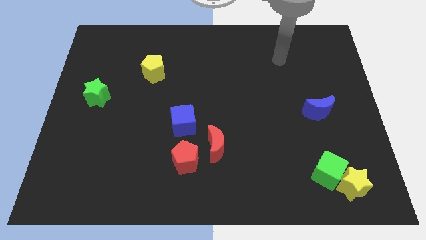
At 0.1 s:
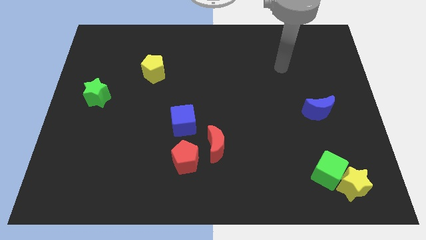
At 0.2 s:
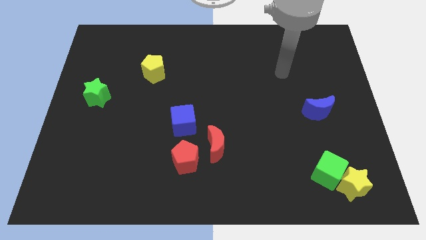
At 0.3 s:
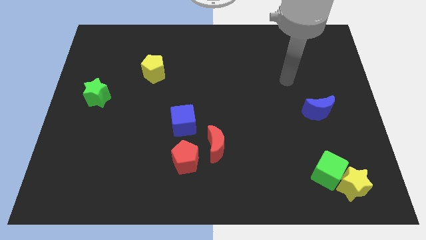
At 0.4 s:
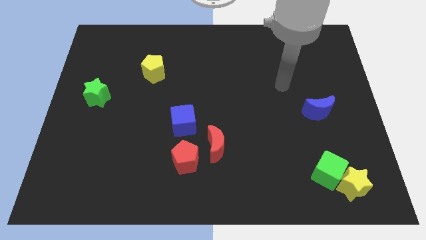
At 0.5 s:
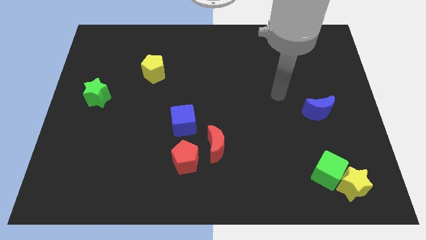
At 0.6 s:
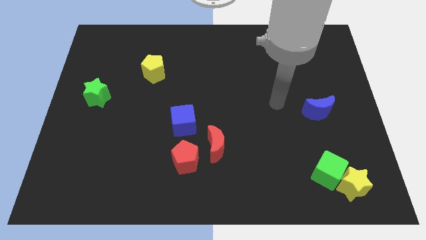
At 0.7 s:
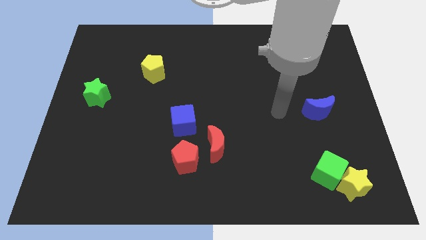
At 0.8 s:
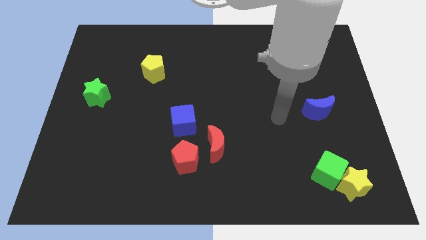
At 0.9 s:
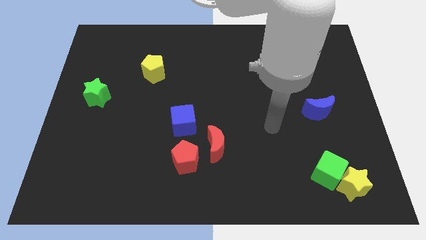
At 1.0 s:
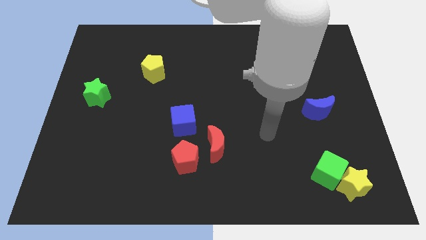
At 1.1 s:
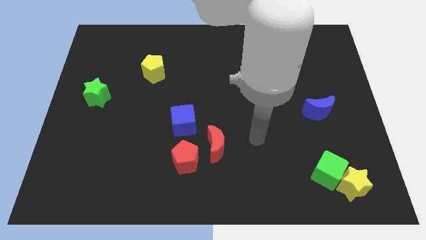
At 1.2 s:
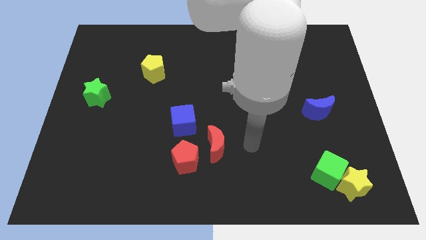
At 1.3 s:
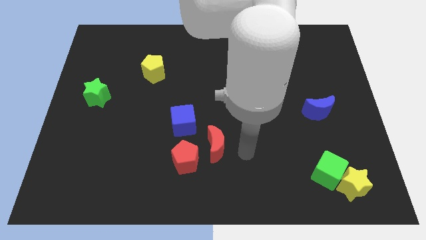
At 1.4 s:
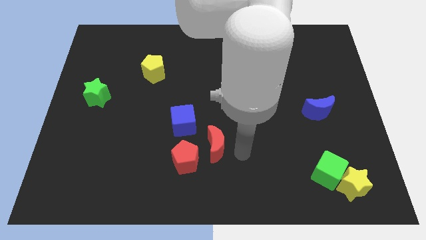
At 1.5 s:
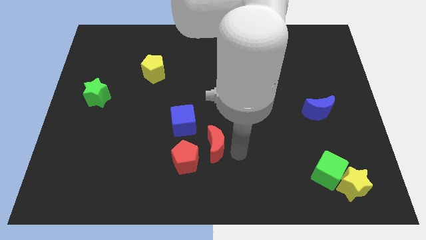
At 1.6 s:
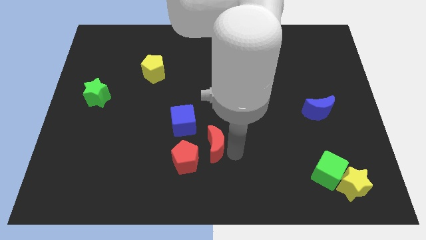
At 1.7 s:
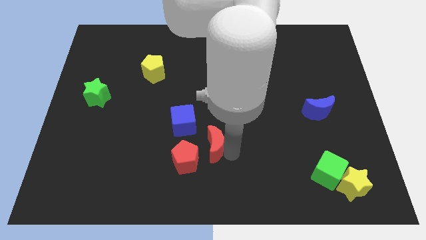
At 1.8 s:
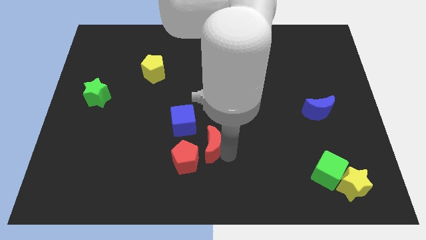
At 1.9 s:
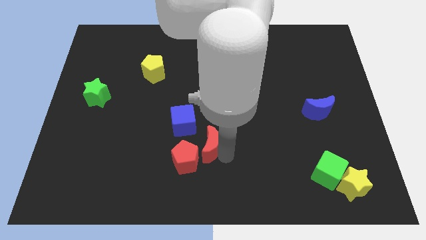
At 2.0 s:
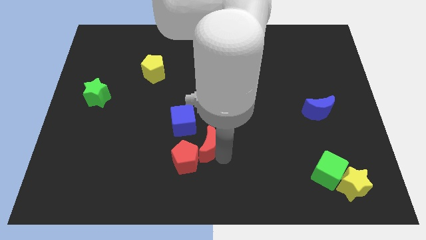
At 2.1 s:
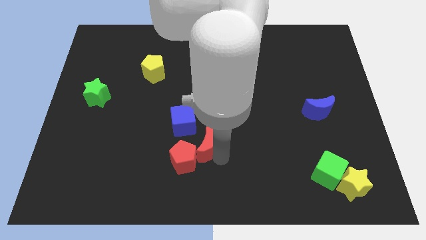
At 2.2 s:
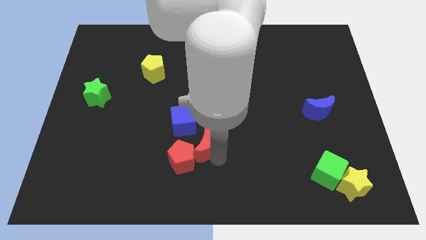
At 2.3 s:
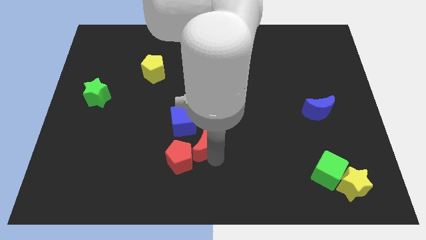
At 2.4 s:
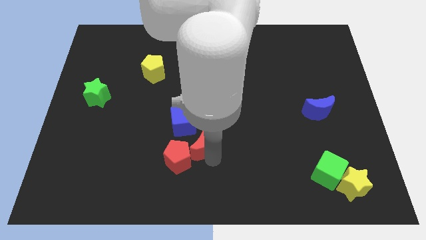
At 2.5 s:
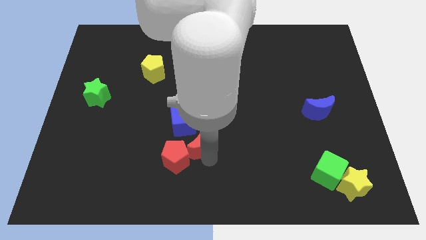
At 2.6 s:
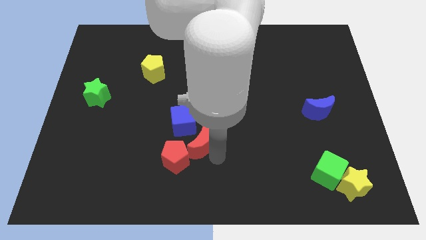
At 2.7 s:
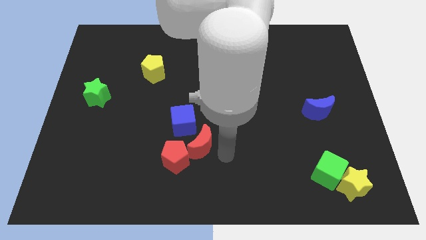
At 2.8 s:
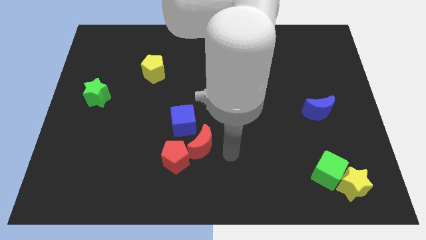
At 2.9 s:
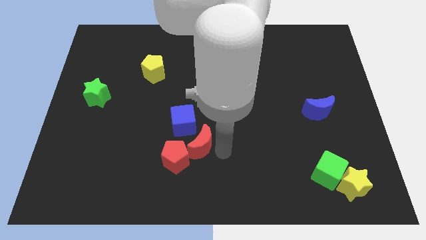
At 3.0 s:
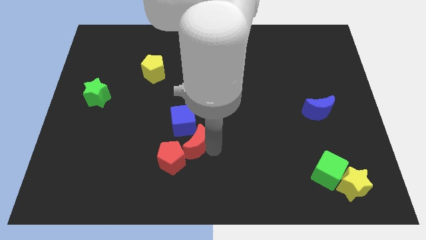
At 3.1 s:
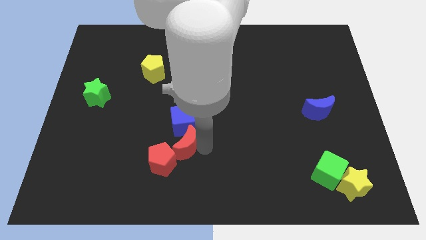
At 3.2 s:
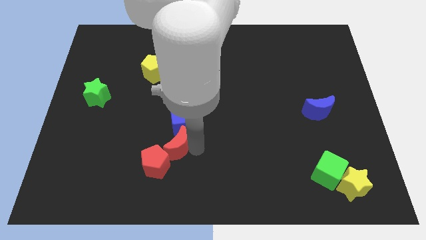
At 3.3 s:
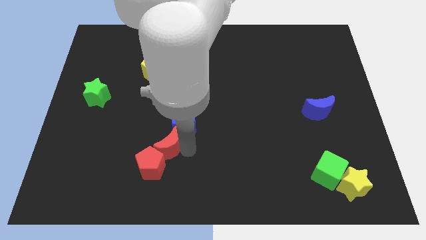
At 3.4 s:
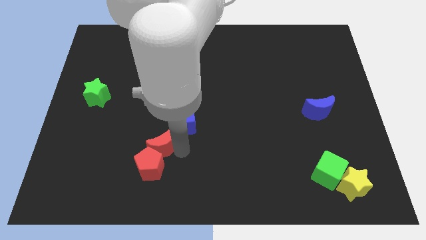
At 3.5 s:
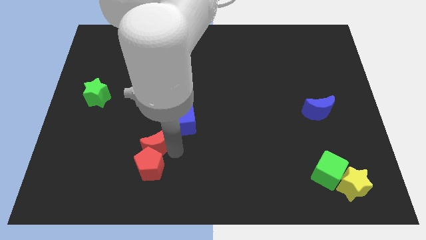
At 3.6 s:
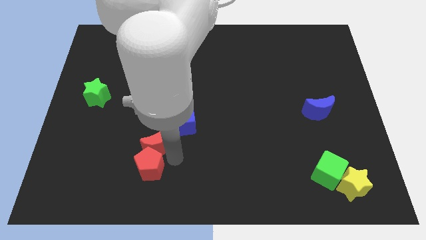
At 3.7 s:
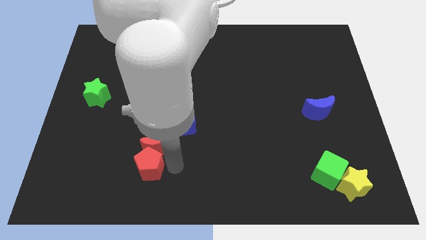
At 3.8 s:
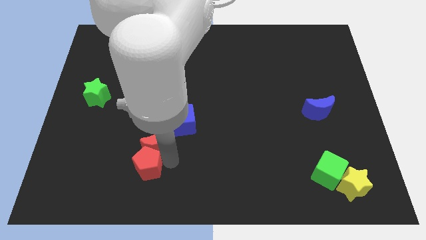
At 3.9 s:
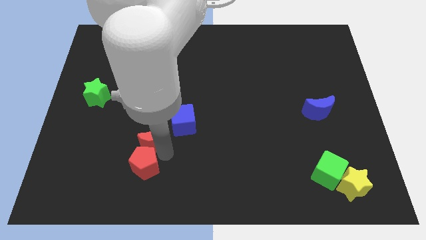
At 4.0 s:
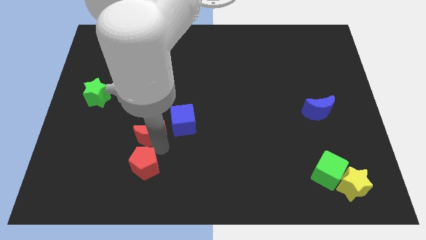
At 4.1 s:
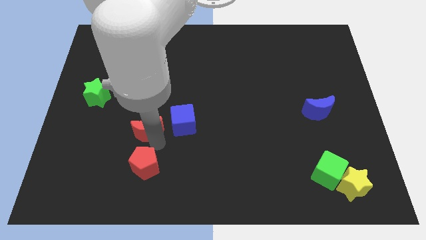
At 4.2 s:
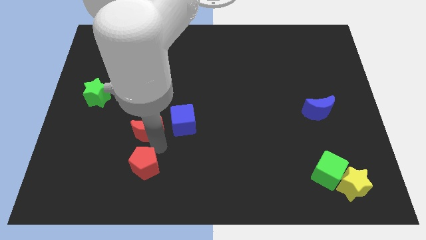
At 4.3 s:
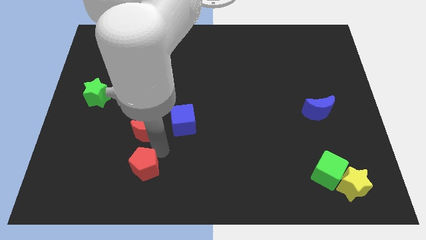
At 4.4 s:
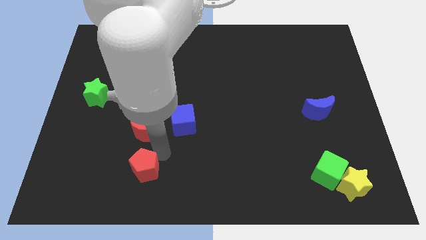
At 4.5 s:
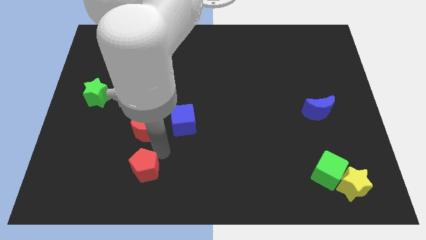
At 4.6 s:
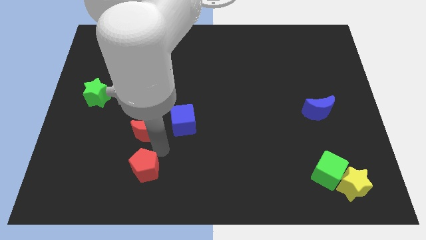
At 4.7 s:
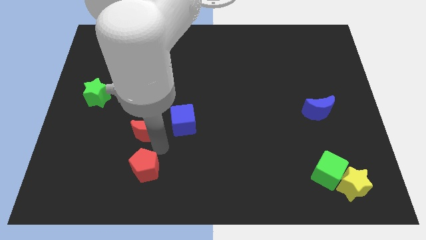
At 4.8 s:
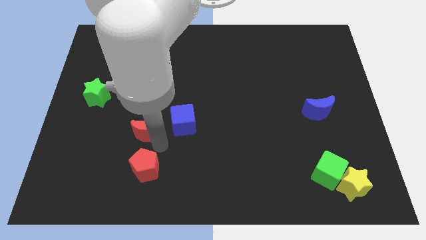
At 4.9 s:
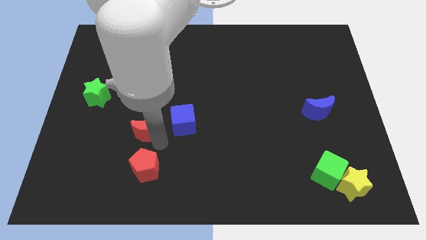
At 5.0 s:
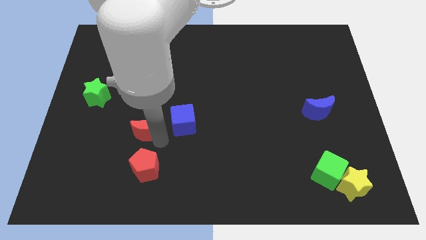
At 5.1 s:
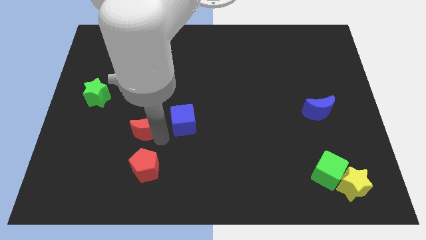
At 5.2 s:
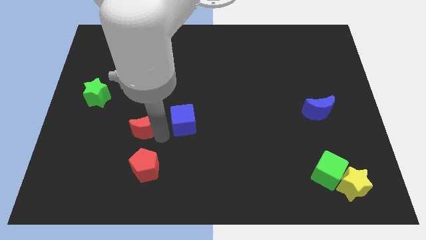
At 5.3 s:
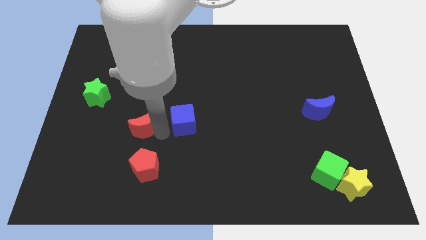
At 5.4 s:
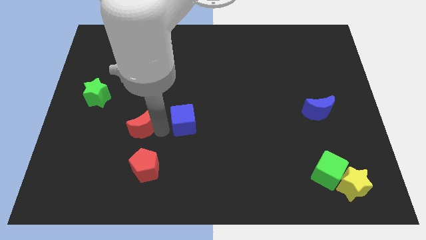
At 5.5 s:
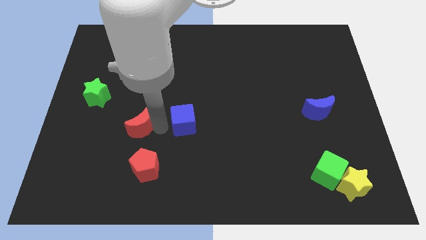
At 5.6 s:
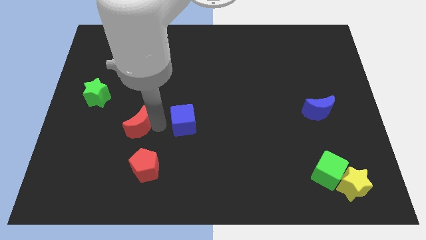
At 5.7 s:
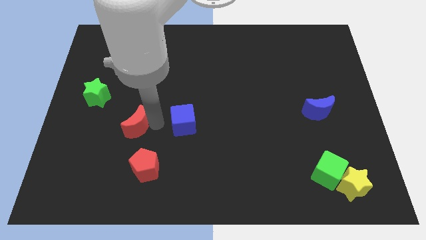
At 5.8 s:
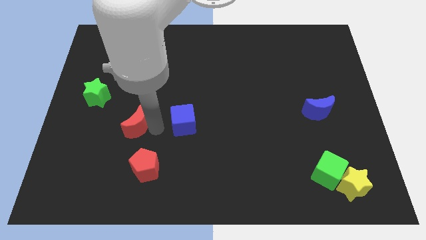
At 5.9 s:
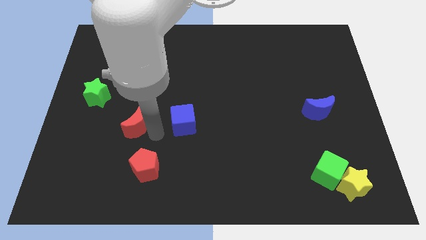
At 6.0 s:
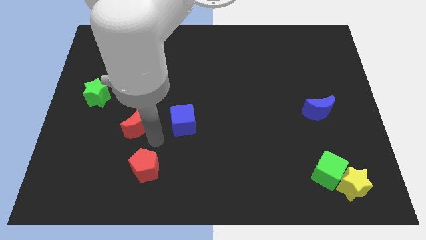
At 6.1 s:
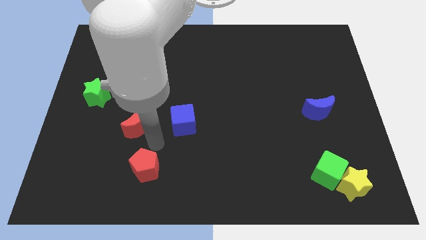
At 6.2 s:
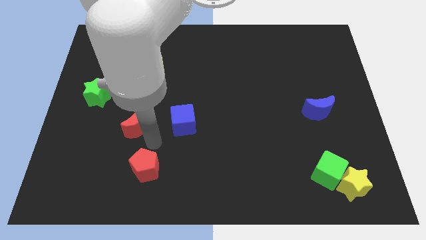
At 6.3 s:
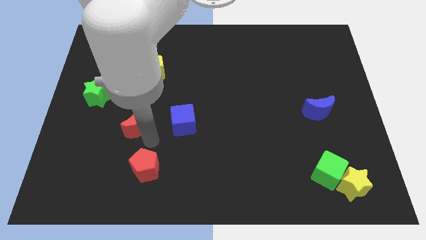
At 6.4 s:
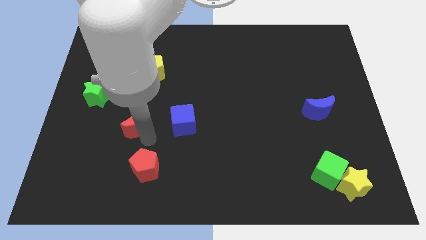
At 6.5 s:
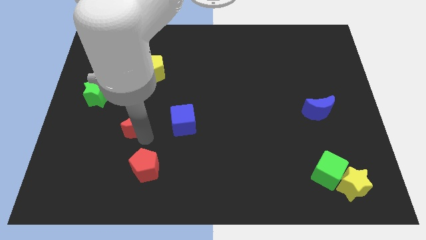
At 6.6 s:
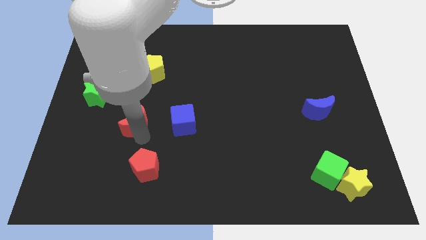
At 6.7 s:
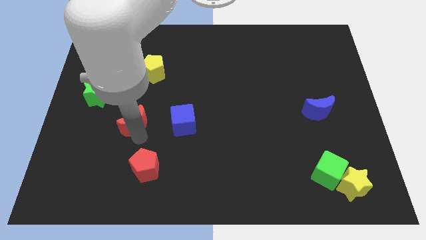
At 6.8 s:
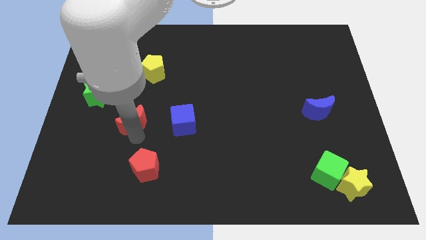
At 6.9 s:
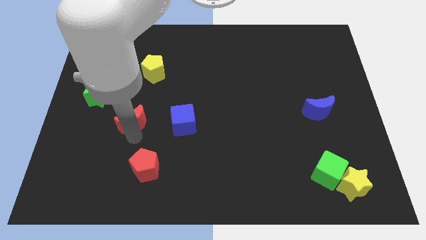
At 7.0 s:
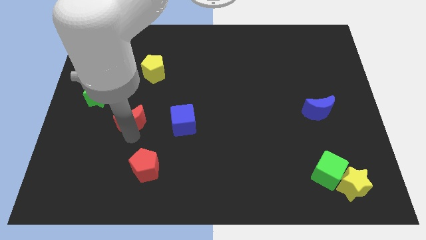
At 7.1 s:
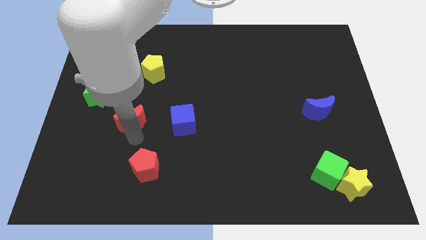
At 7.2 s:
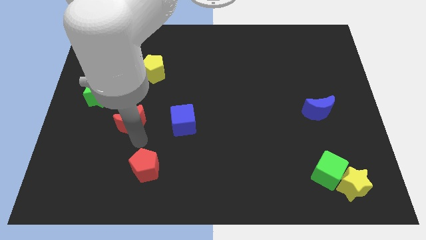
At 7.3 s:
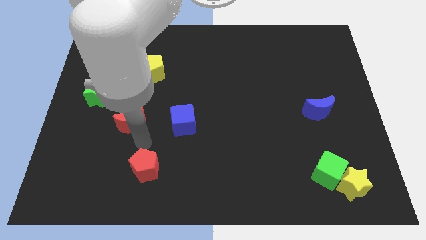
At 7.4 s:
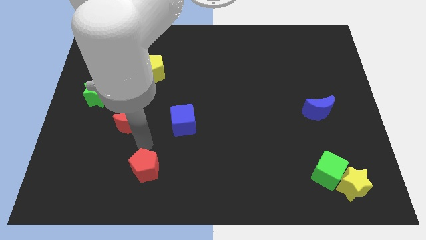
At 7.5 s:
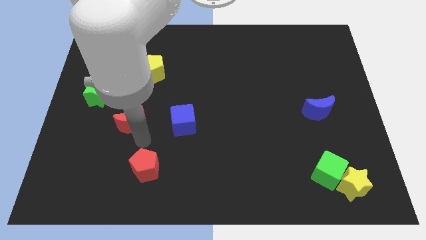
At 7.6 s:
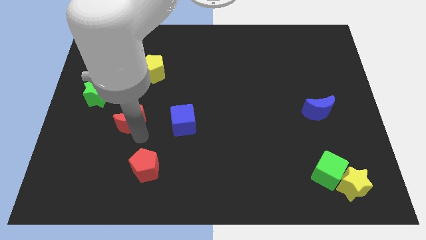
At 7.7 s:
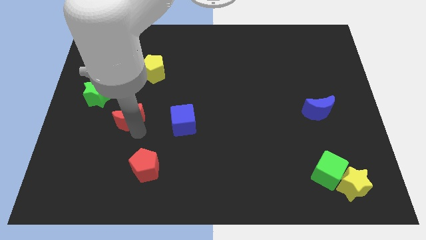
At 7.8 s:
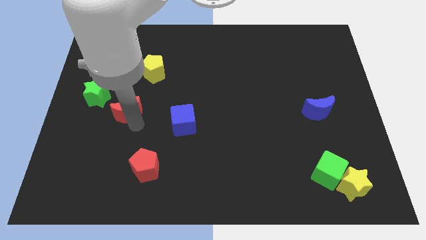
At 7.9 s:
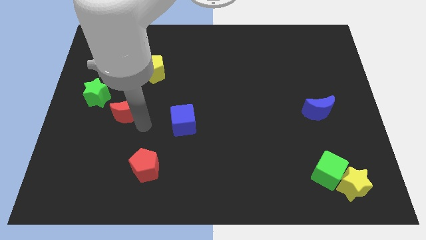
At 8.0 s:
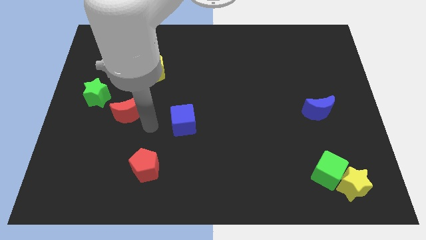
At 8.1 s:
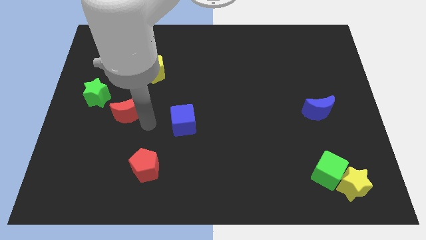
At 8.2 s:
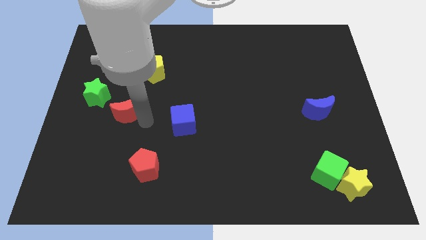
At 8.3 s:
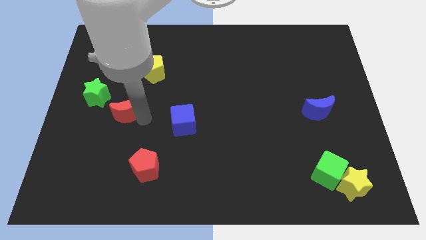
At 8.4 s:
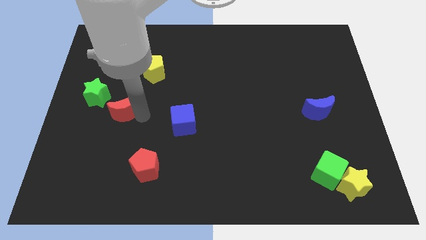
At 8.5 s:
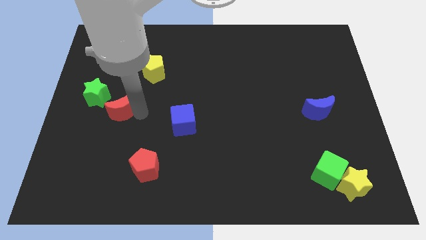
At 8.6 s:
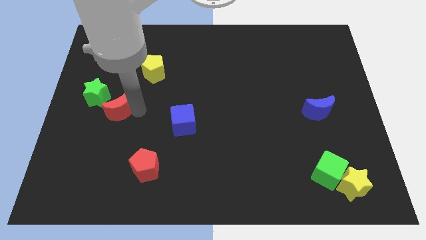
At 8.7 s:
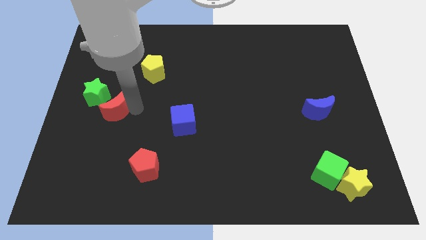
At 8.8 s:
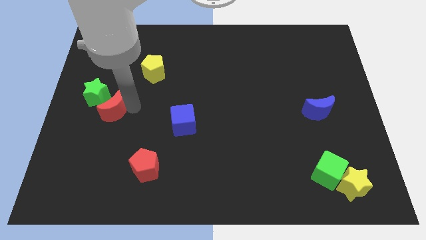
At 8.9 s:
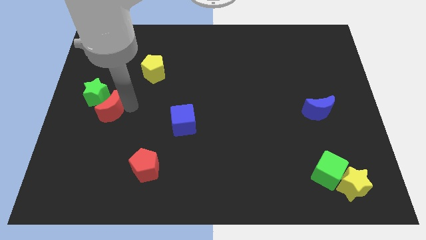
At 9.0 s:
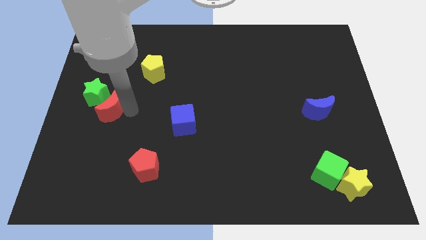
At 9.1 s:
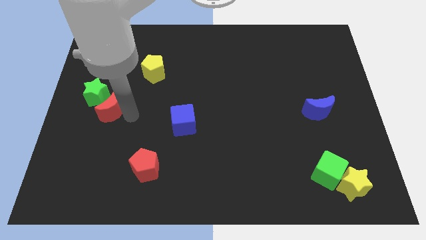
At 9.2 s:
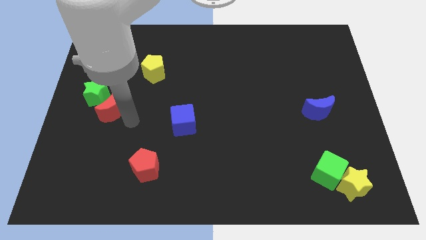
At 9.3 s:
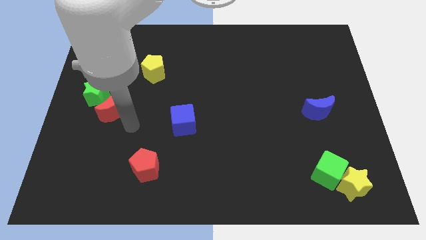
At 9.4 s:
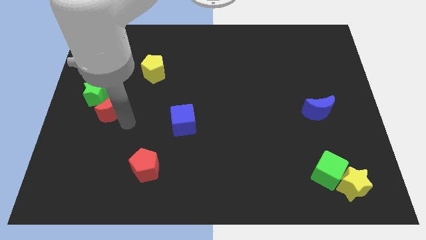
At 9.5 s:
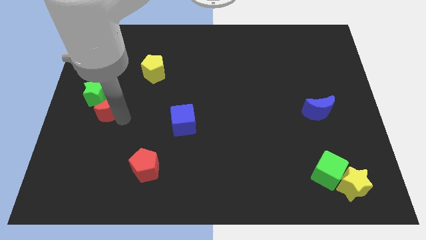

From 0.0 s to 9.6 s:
slide the red moon to the green star
